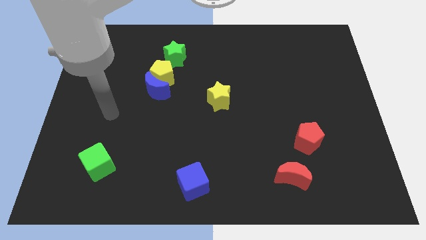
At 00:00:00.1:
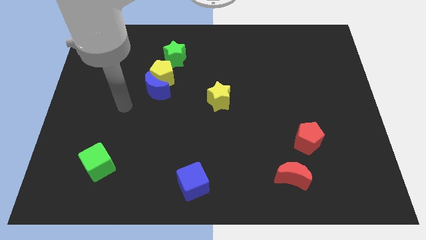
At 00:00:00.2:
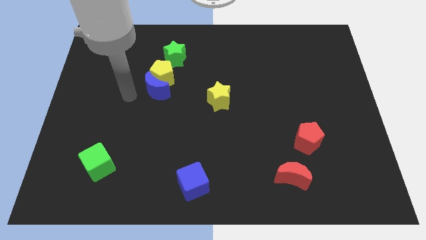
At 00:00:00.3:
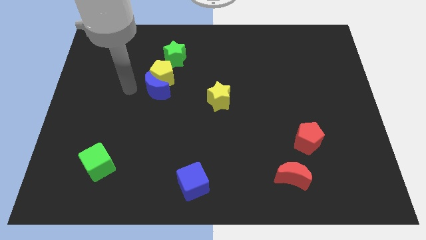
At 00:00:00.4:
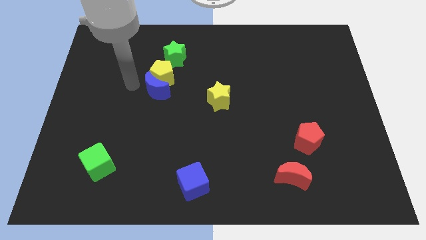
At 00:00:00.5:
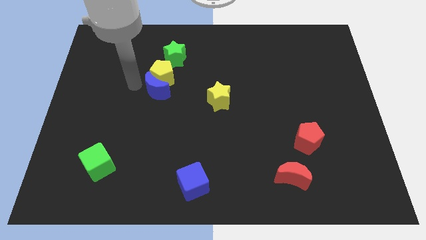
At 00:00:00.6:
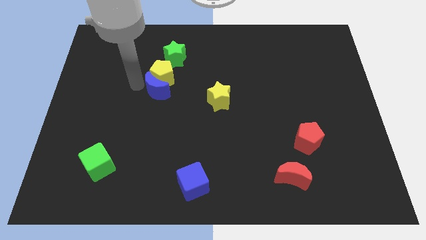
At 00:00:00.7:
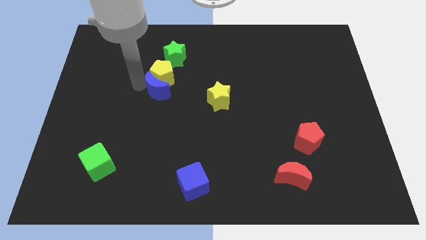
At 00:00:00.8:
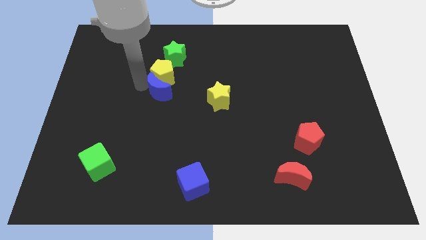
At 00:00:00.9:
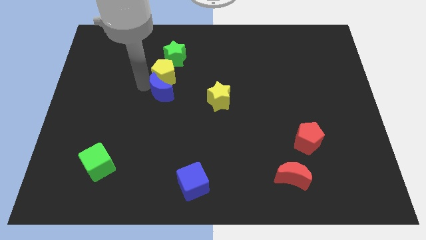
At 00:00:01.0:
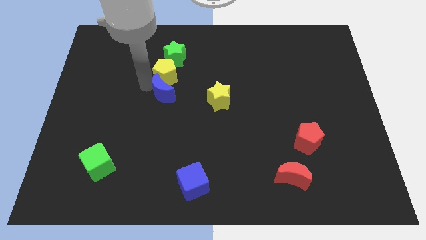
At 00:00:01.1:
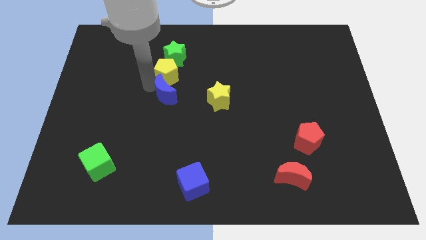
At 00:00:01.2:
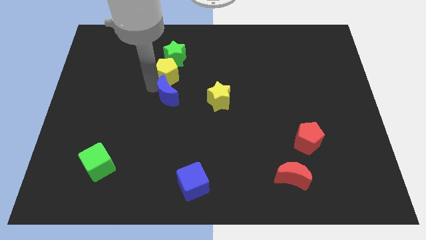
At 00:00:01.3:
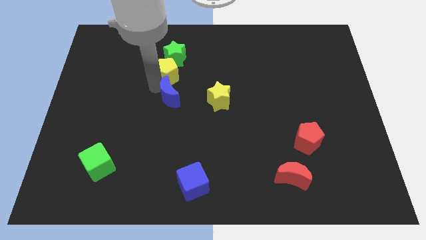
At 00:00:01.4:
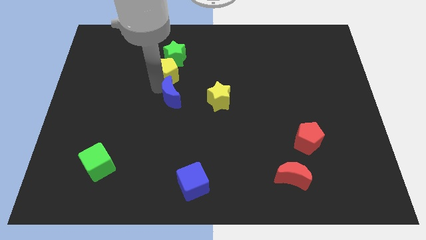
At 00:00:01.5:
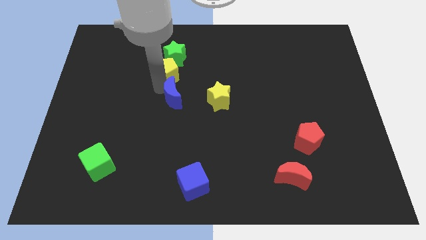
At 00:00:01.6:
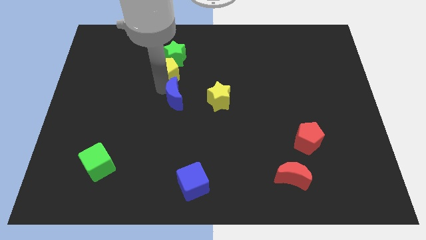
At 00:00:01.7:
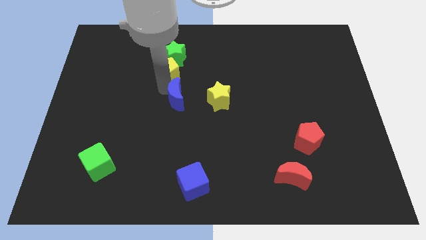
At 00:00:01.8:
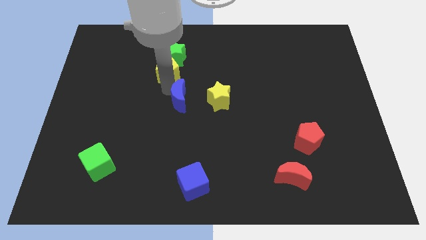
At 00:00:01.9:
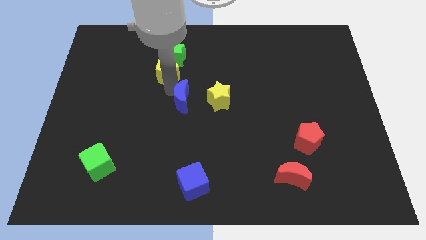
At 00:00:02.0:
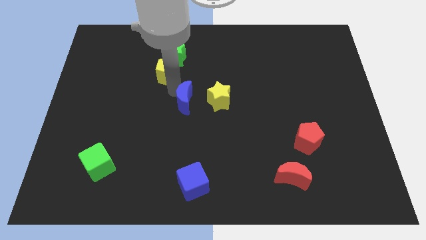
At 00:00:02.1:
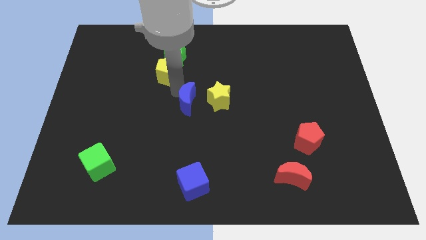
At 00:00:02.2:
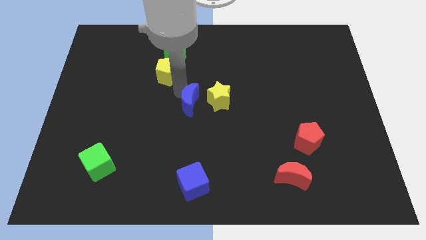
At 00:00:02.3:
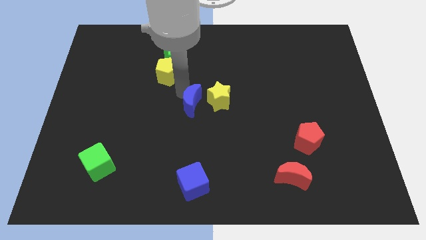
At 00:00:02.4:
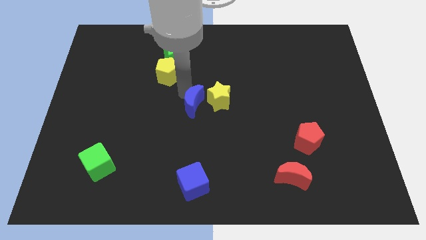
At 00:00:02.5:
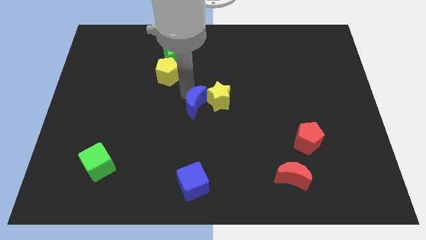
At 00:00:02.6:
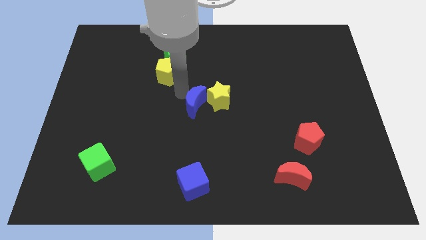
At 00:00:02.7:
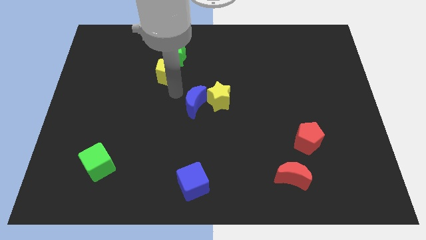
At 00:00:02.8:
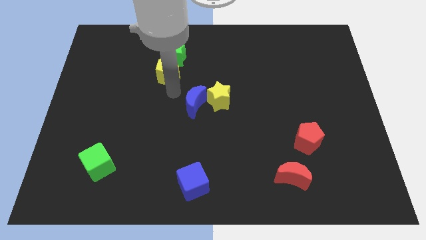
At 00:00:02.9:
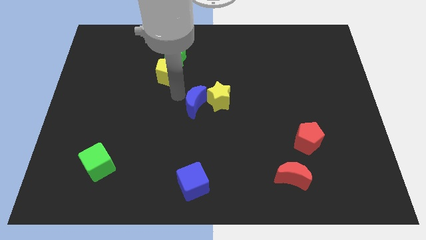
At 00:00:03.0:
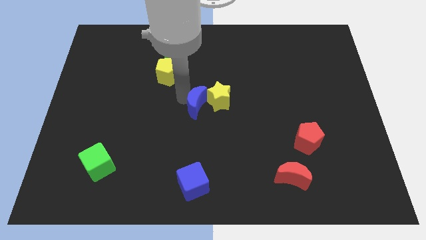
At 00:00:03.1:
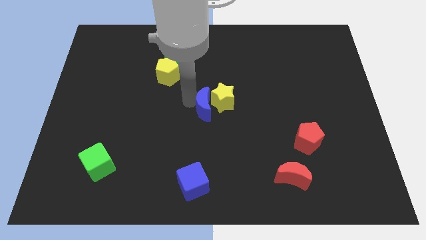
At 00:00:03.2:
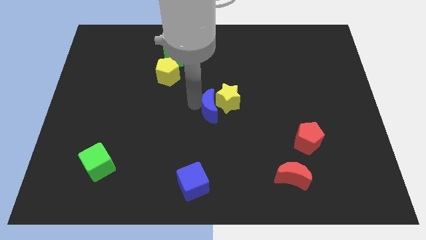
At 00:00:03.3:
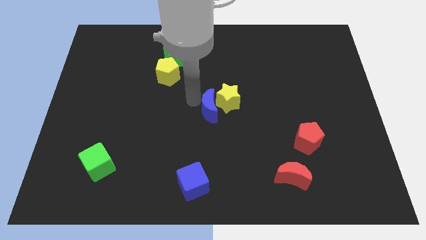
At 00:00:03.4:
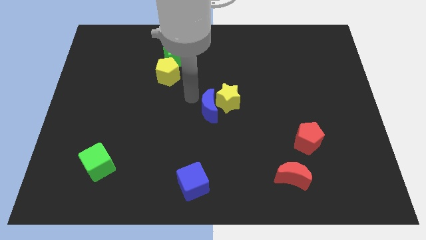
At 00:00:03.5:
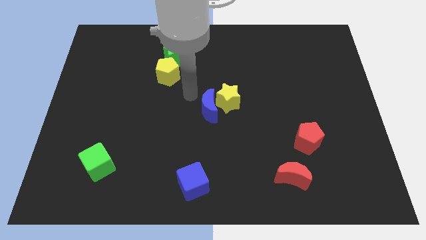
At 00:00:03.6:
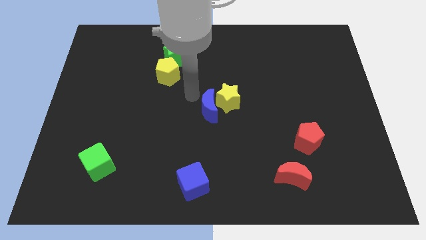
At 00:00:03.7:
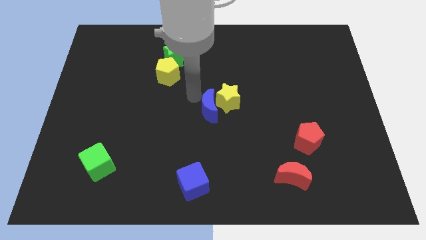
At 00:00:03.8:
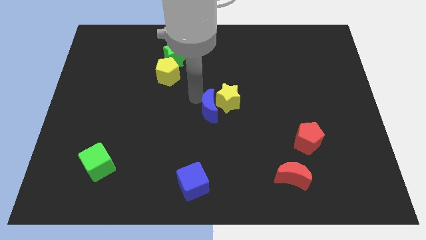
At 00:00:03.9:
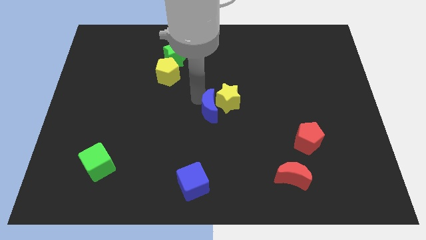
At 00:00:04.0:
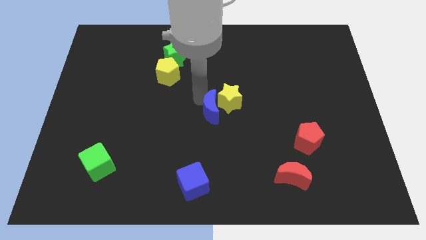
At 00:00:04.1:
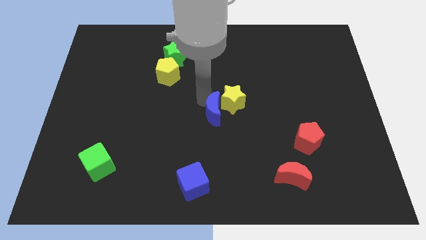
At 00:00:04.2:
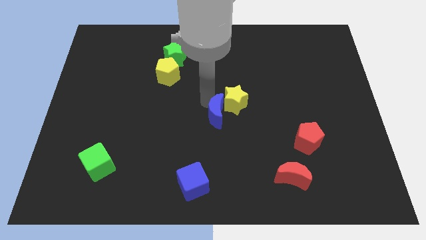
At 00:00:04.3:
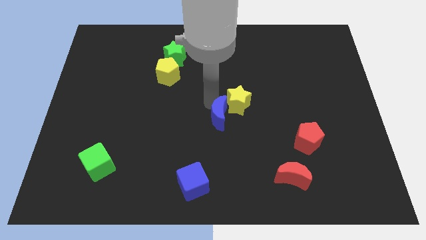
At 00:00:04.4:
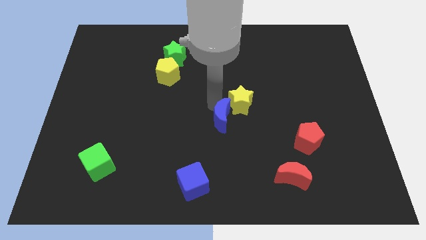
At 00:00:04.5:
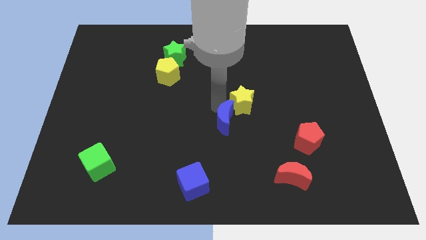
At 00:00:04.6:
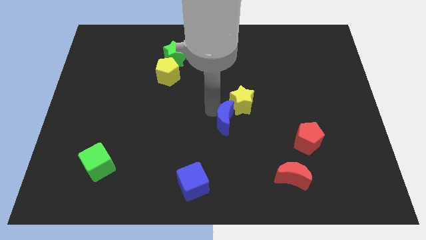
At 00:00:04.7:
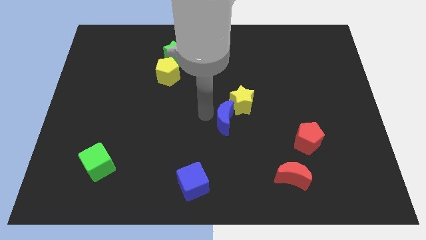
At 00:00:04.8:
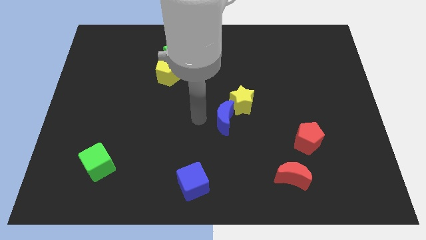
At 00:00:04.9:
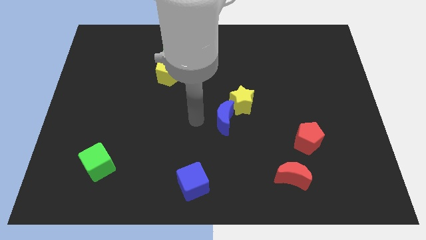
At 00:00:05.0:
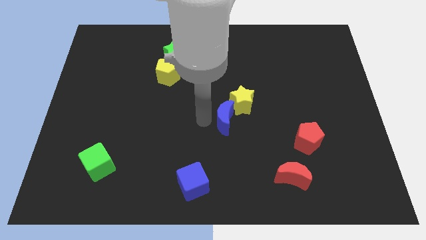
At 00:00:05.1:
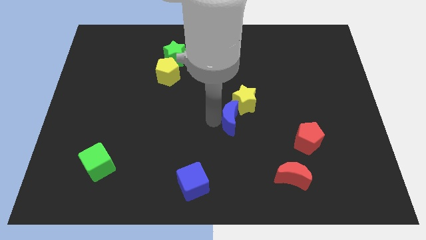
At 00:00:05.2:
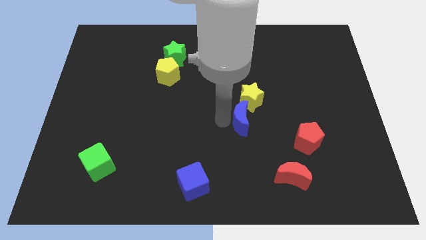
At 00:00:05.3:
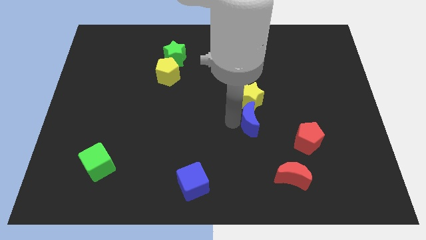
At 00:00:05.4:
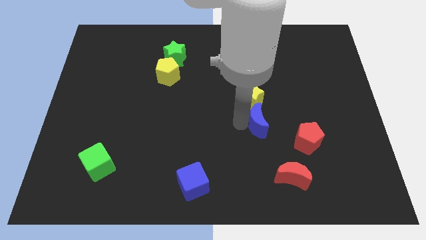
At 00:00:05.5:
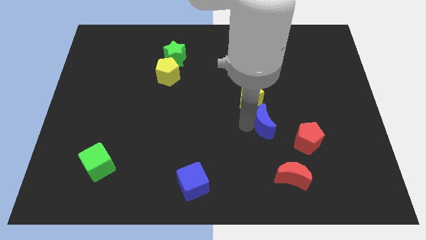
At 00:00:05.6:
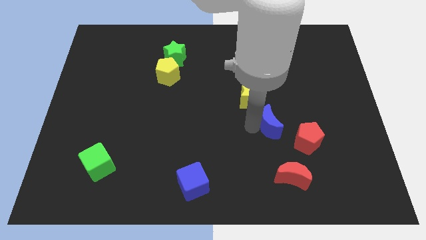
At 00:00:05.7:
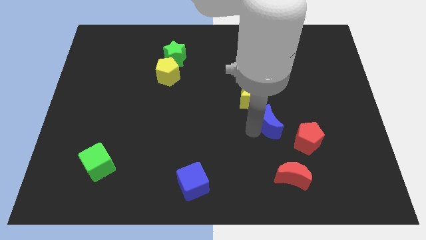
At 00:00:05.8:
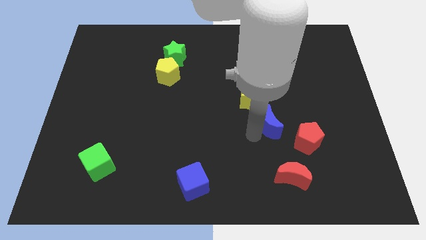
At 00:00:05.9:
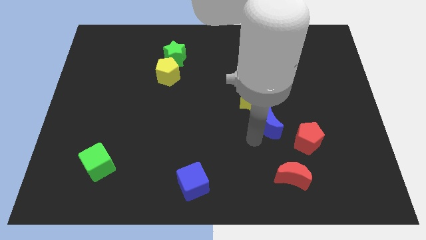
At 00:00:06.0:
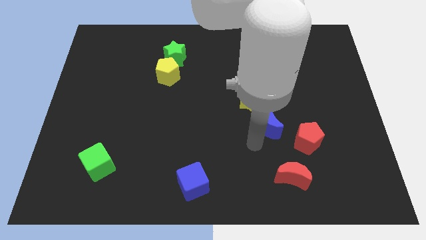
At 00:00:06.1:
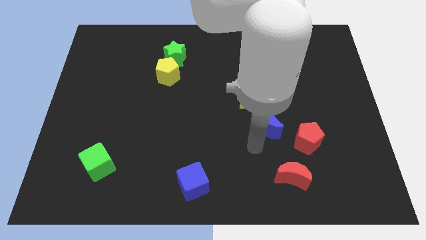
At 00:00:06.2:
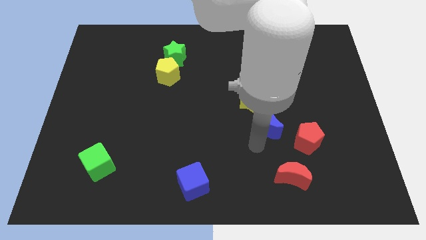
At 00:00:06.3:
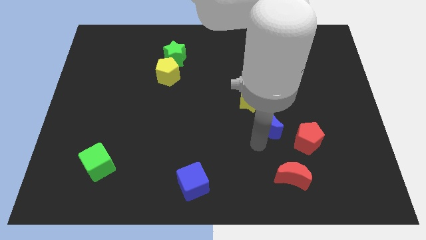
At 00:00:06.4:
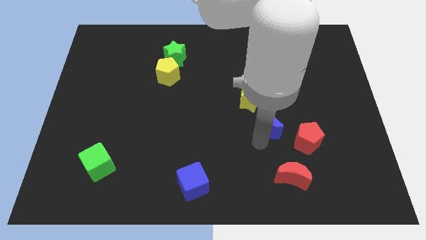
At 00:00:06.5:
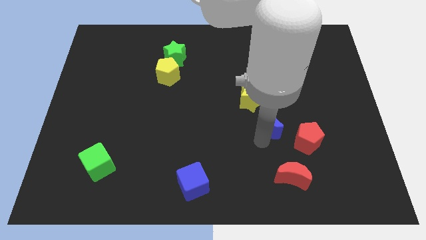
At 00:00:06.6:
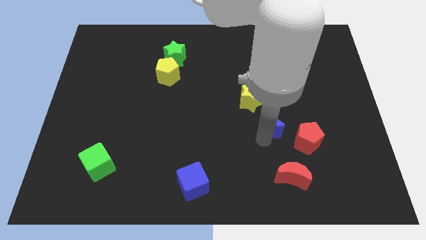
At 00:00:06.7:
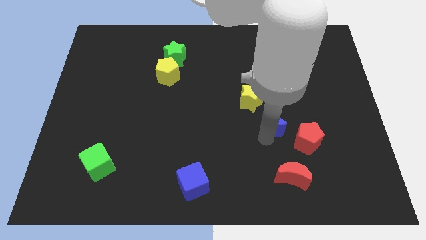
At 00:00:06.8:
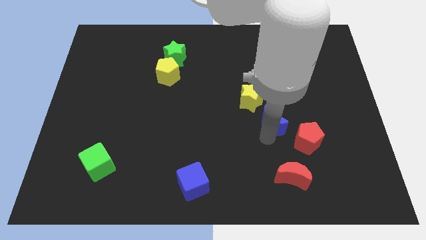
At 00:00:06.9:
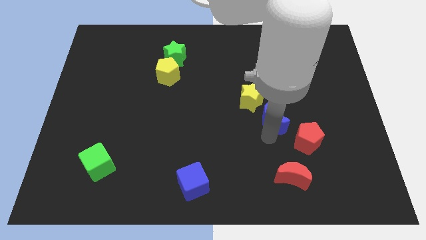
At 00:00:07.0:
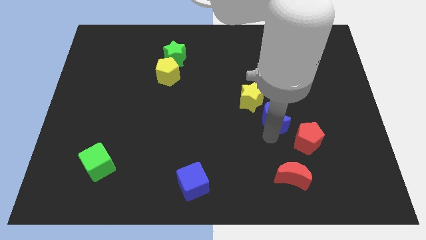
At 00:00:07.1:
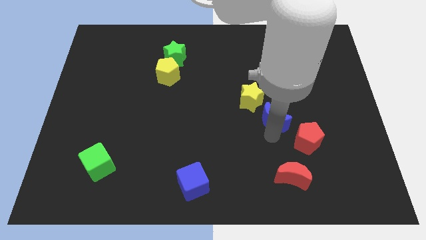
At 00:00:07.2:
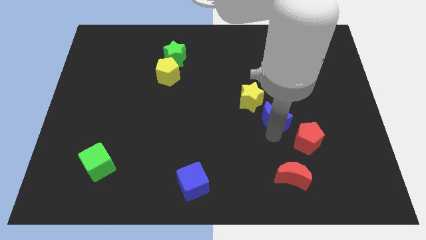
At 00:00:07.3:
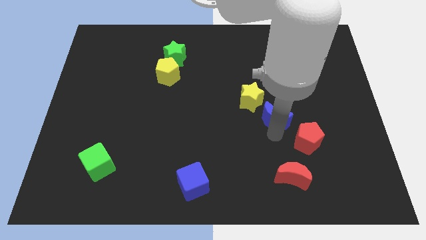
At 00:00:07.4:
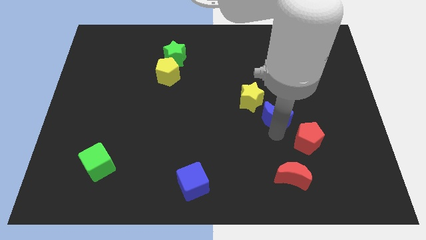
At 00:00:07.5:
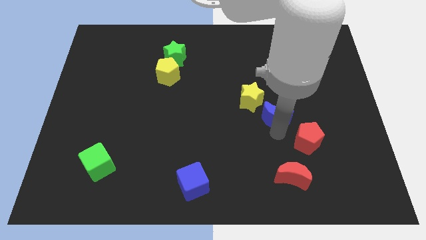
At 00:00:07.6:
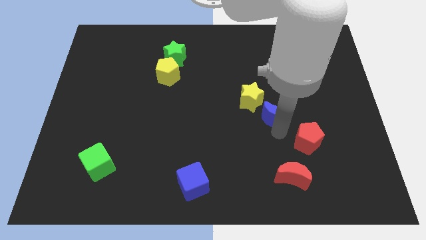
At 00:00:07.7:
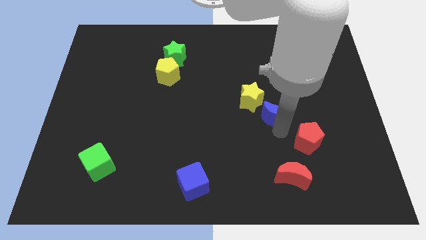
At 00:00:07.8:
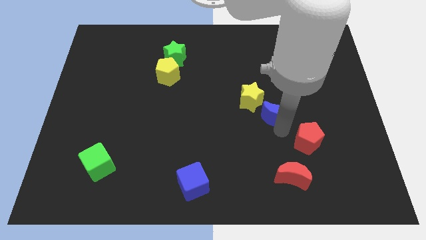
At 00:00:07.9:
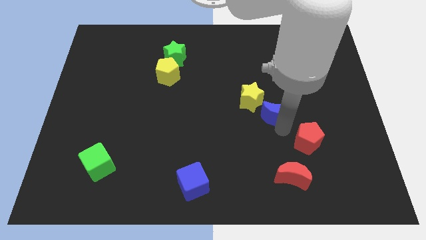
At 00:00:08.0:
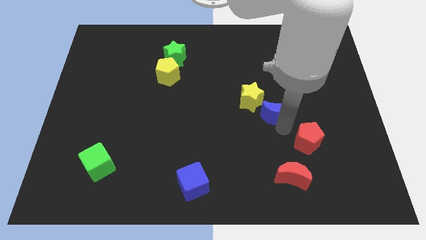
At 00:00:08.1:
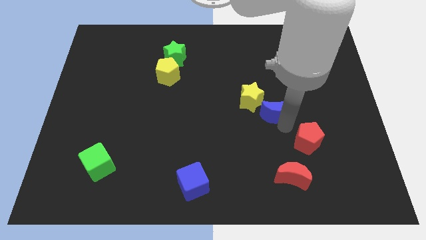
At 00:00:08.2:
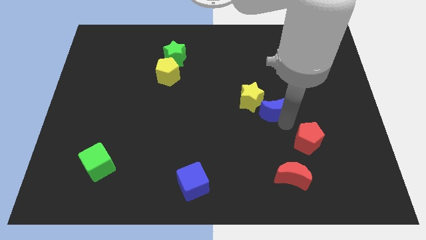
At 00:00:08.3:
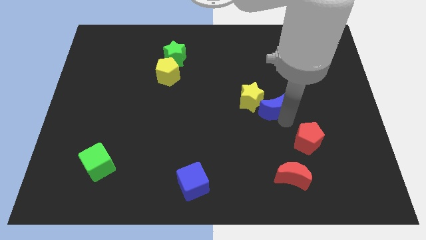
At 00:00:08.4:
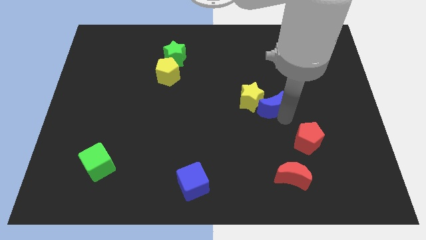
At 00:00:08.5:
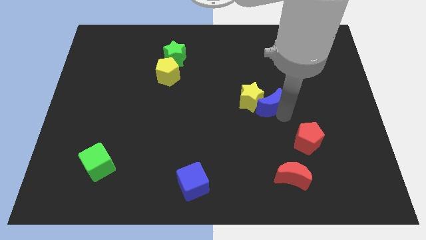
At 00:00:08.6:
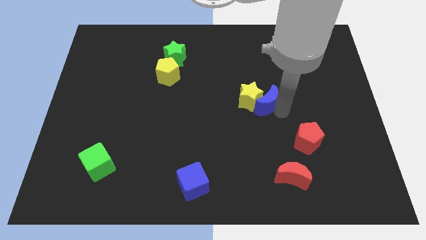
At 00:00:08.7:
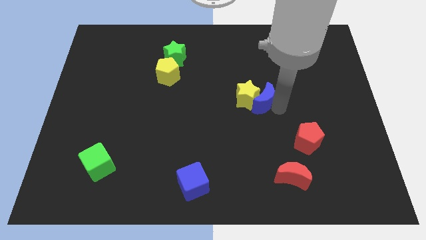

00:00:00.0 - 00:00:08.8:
push the blue moon to the bottom right of the yellow star
